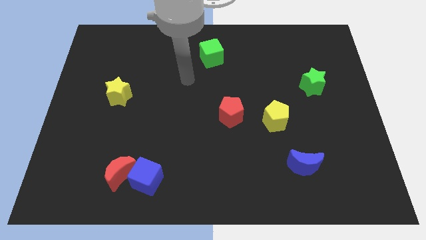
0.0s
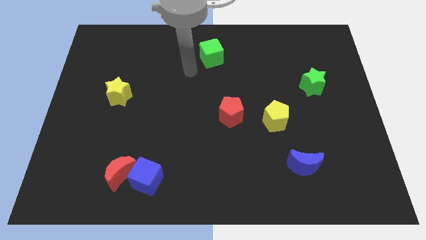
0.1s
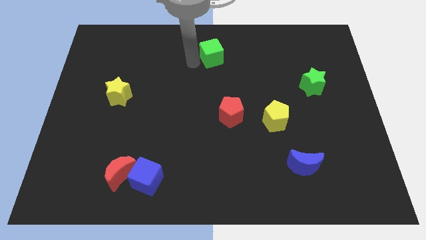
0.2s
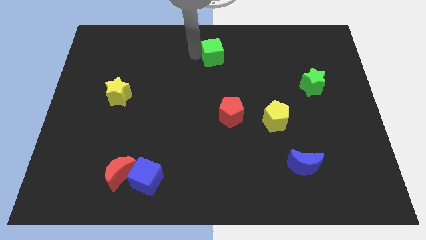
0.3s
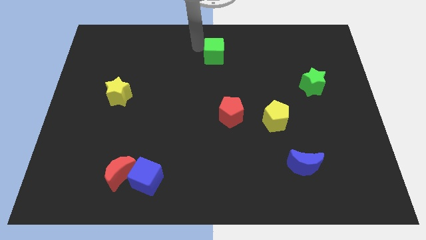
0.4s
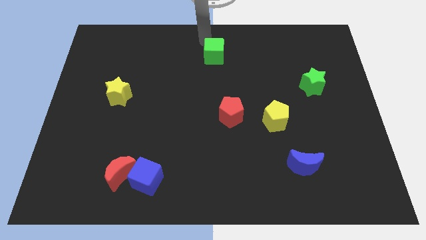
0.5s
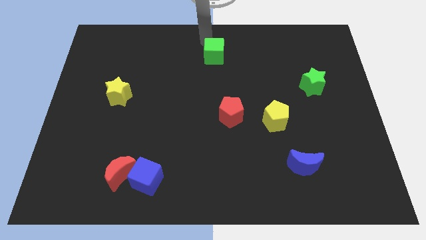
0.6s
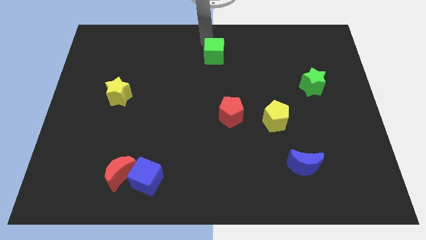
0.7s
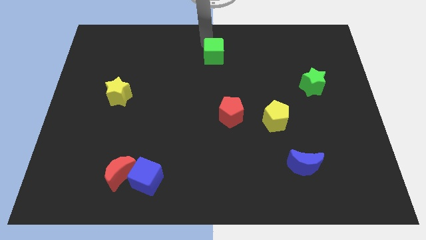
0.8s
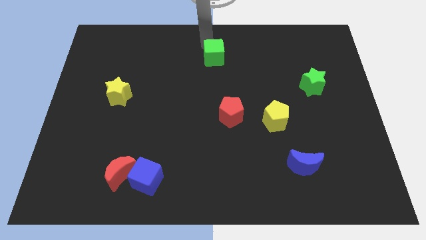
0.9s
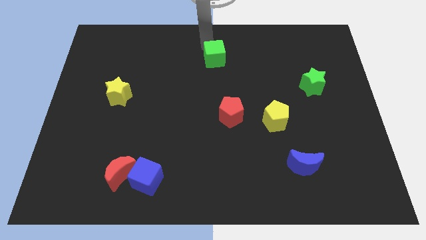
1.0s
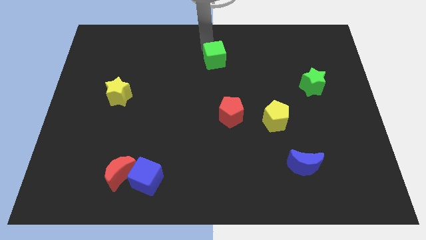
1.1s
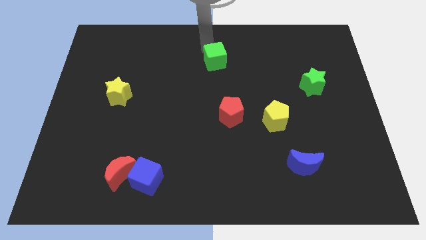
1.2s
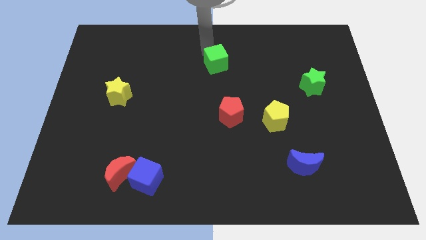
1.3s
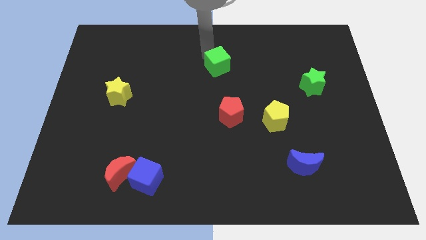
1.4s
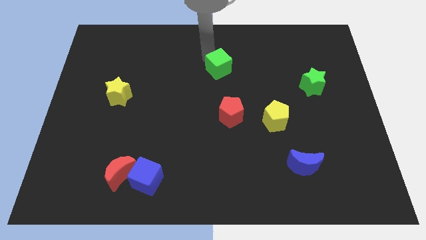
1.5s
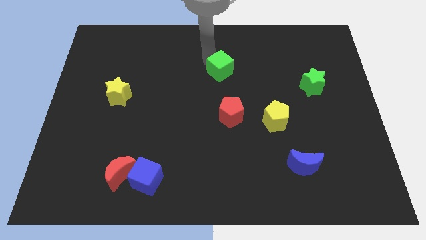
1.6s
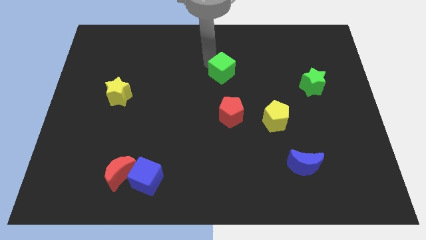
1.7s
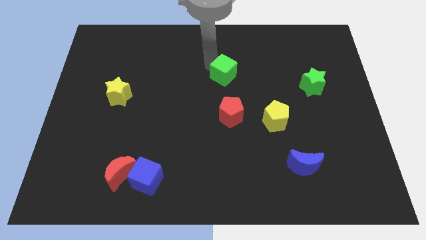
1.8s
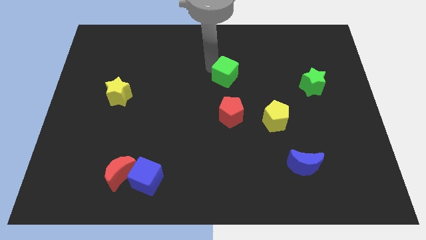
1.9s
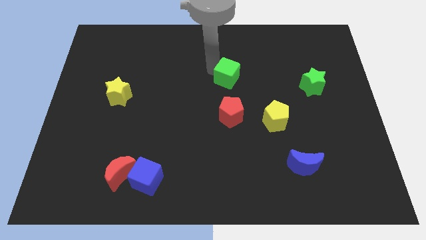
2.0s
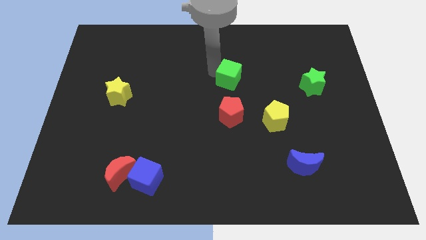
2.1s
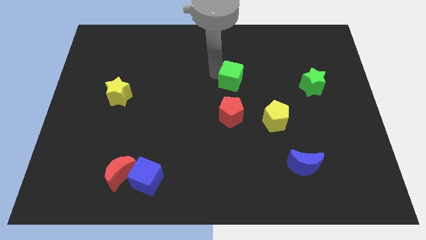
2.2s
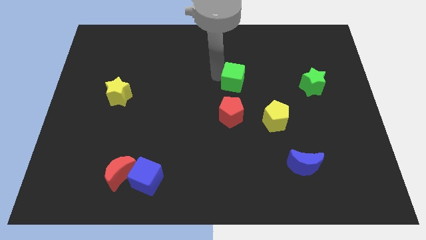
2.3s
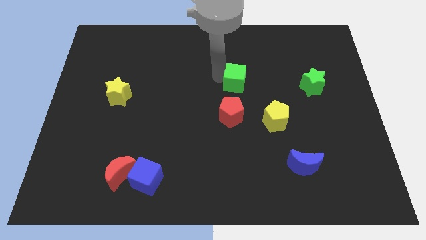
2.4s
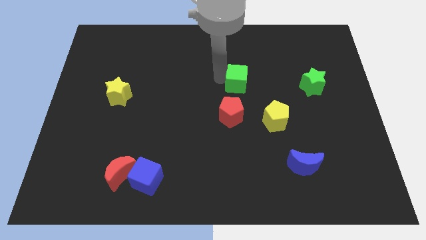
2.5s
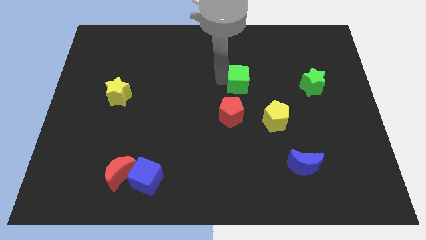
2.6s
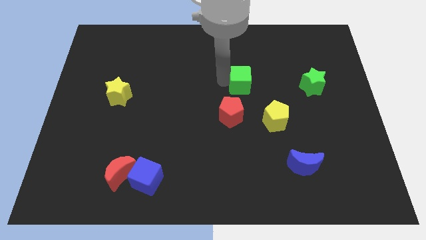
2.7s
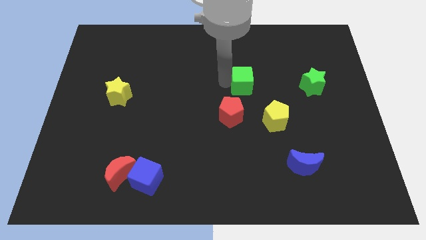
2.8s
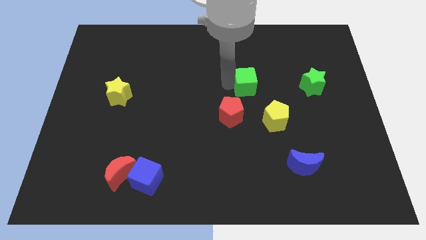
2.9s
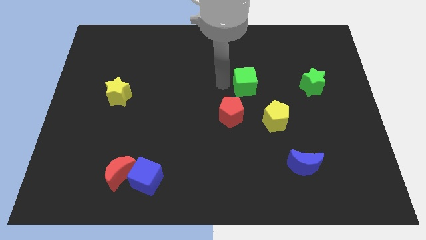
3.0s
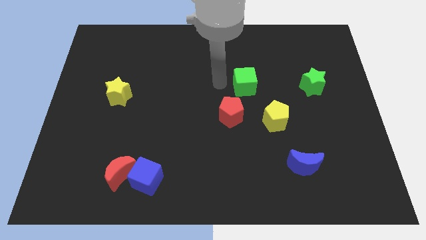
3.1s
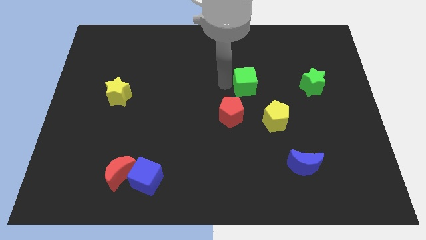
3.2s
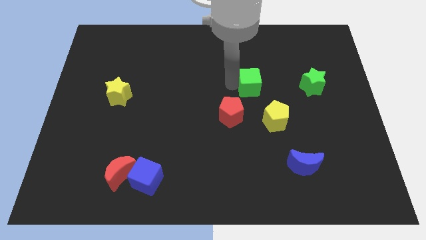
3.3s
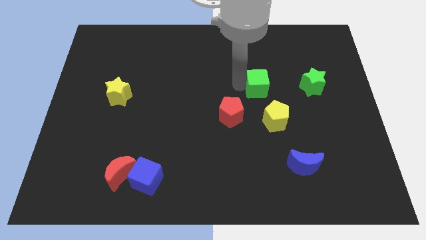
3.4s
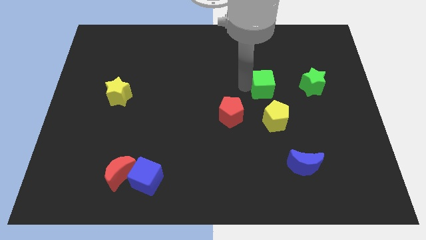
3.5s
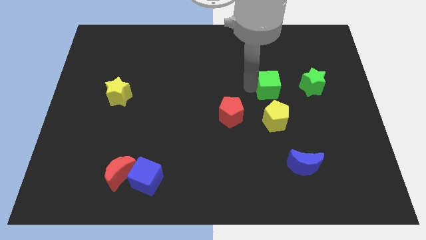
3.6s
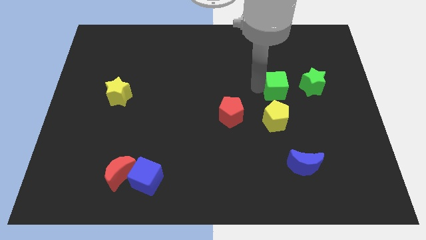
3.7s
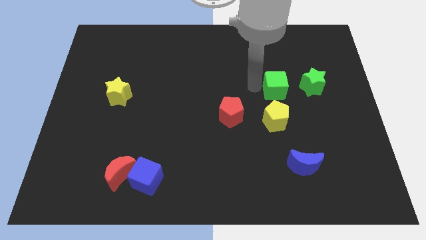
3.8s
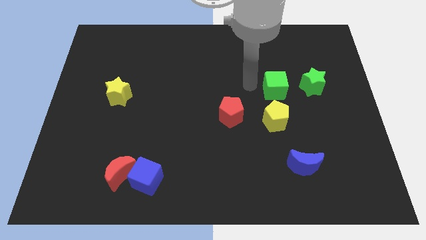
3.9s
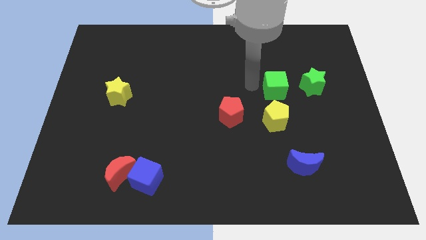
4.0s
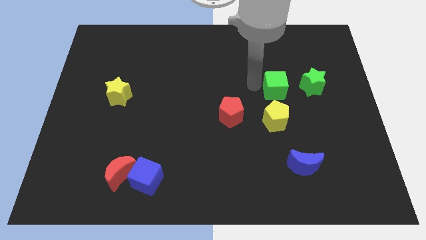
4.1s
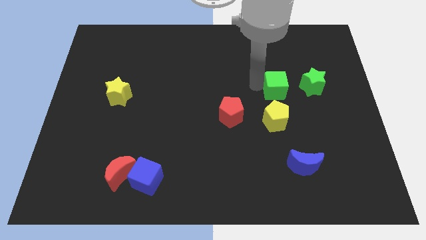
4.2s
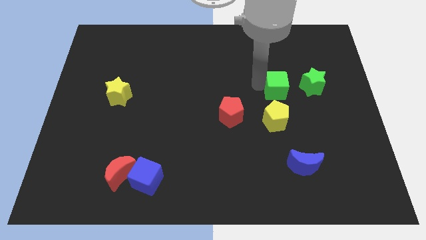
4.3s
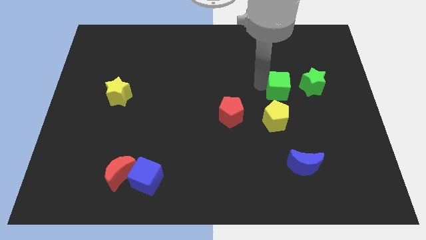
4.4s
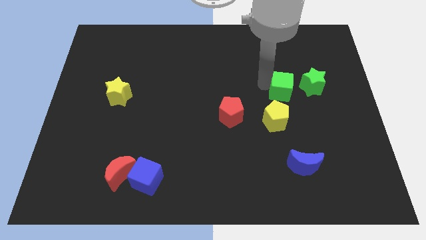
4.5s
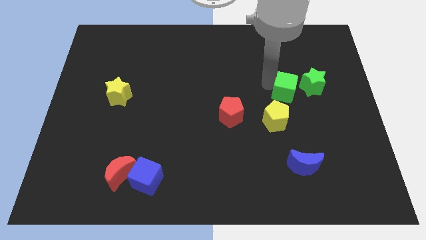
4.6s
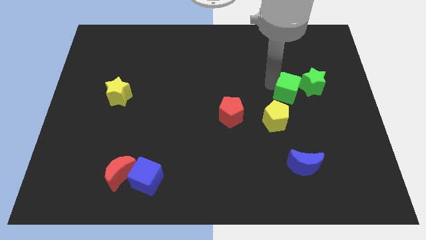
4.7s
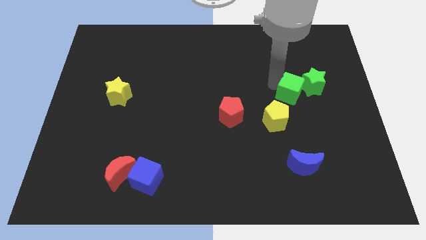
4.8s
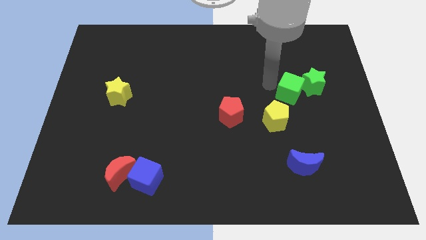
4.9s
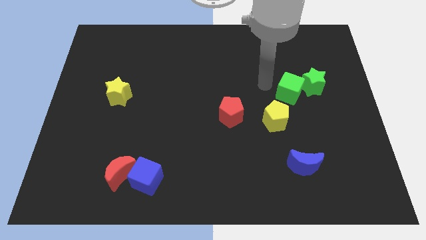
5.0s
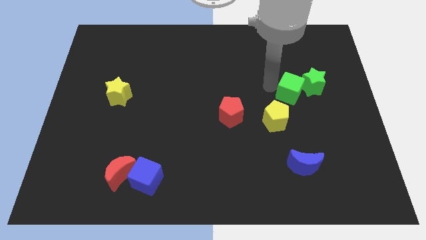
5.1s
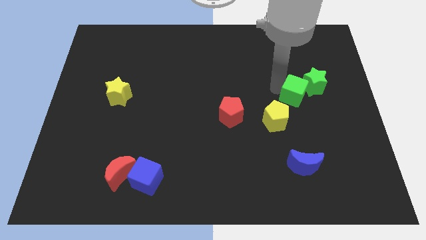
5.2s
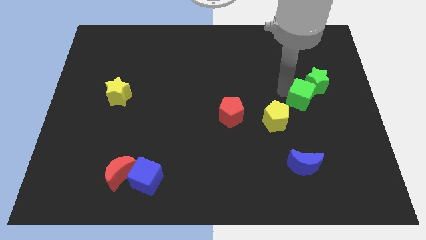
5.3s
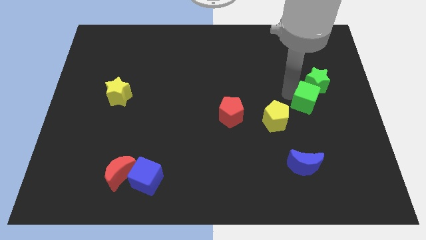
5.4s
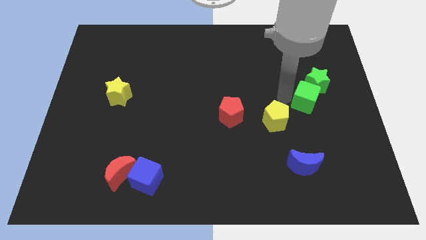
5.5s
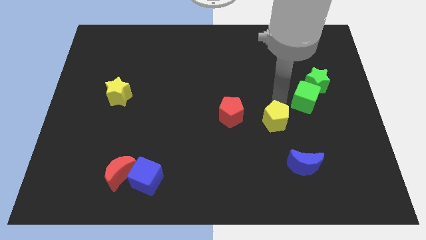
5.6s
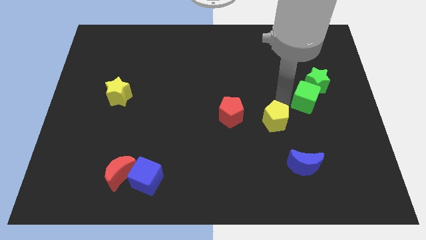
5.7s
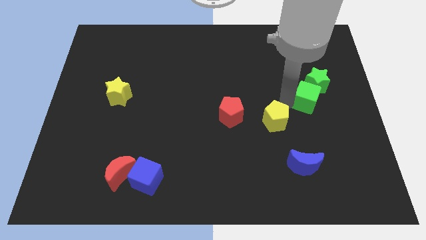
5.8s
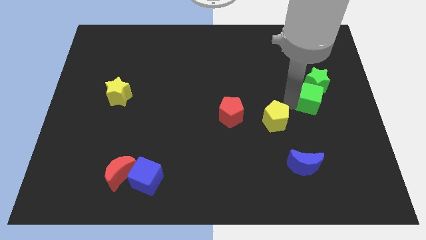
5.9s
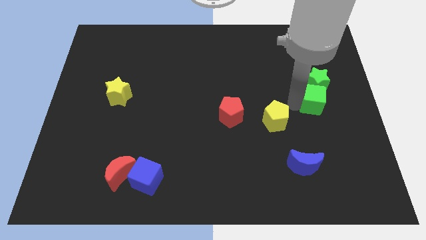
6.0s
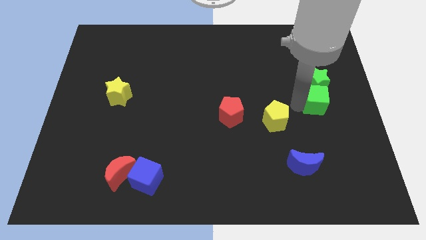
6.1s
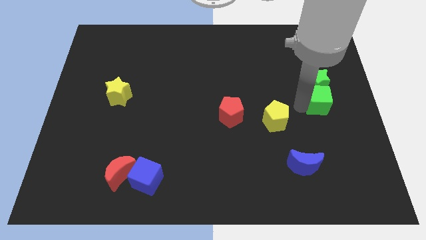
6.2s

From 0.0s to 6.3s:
move the green cube to the right side
